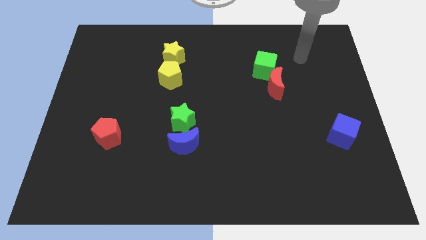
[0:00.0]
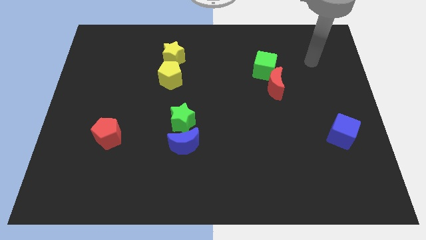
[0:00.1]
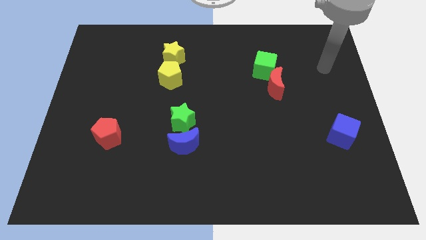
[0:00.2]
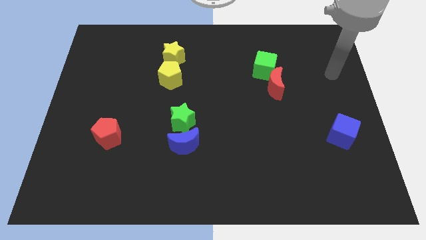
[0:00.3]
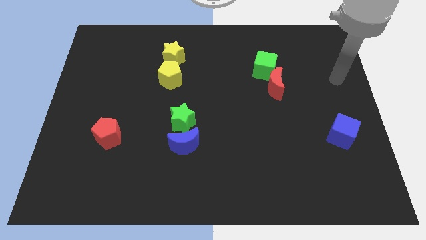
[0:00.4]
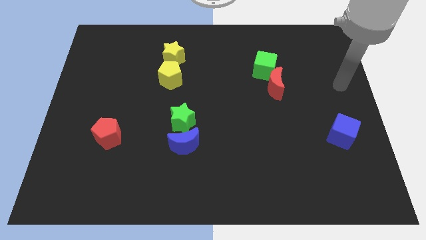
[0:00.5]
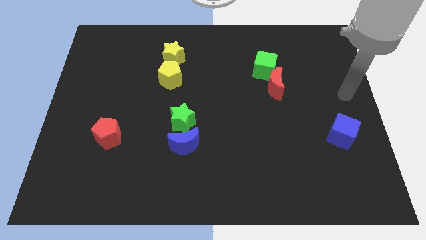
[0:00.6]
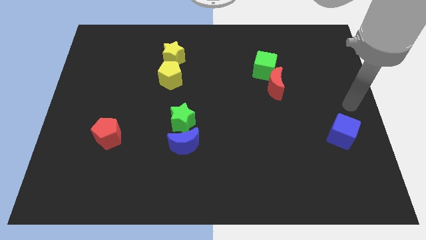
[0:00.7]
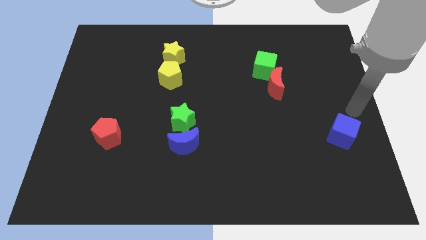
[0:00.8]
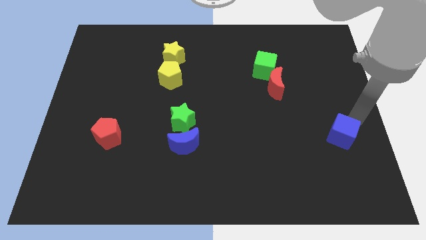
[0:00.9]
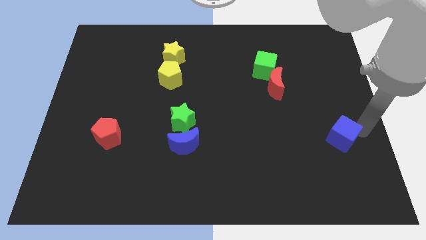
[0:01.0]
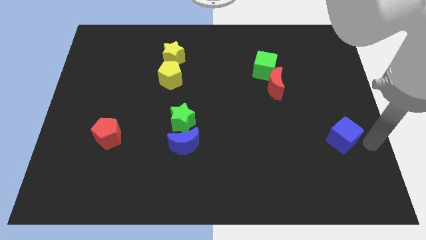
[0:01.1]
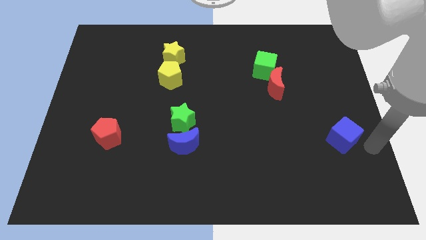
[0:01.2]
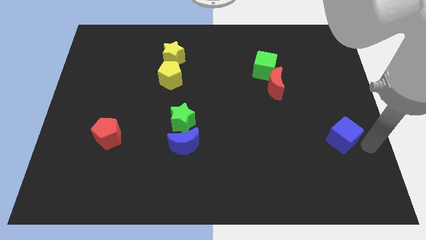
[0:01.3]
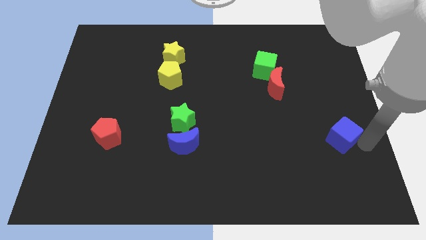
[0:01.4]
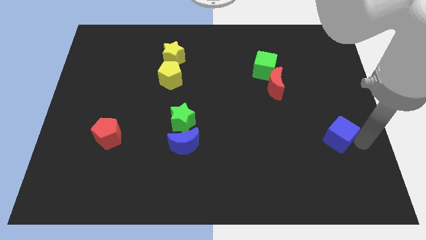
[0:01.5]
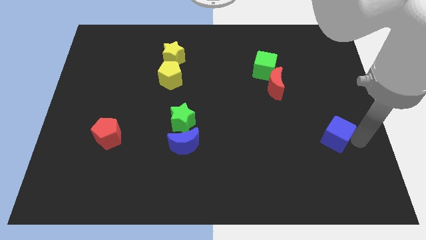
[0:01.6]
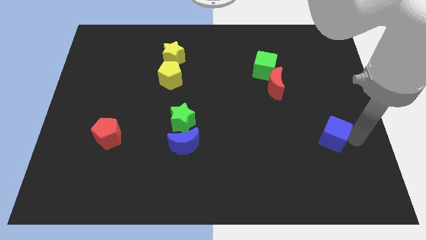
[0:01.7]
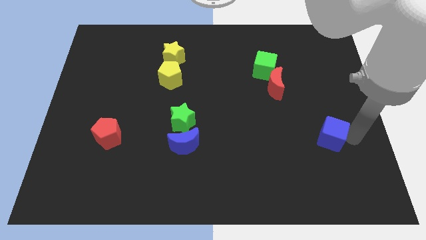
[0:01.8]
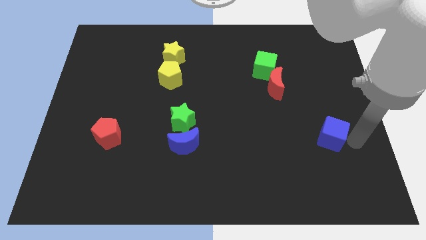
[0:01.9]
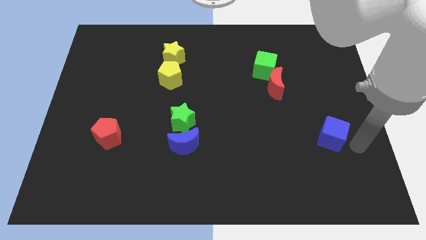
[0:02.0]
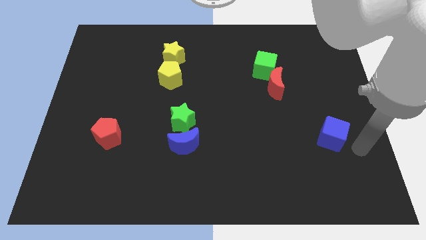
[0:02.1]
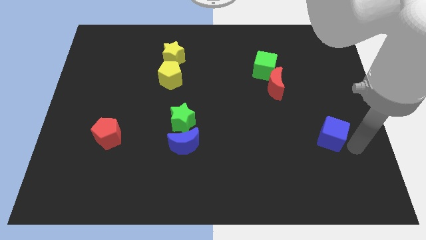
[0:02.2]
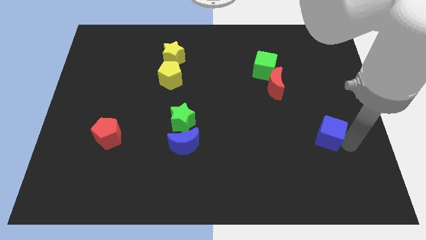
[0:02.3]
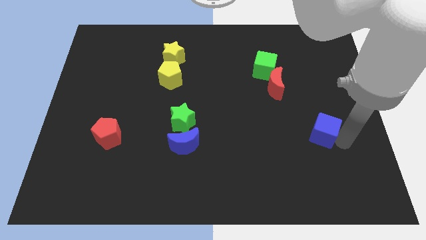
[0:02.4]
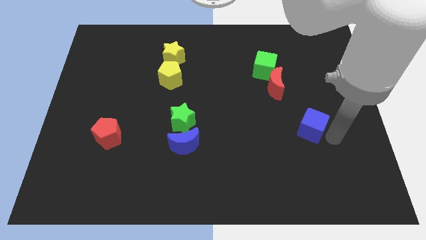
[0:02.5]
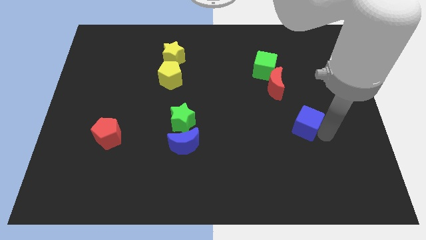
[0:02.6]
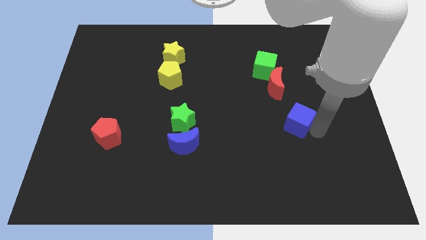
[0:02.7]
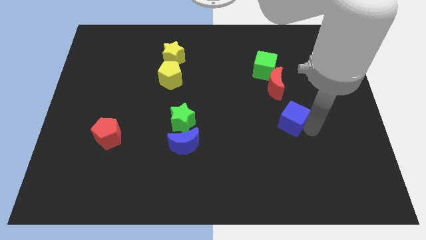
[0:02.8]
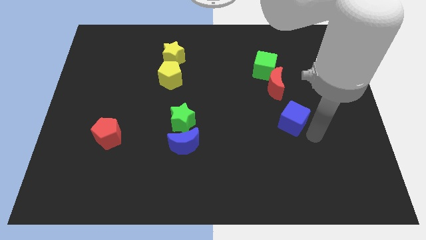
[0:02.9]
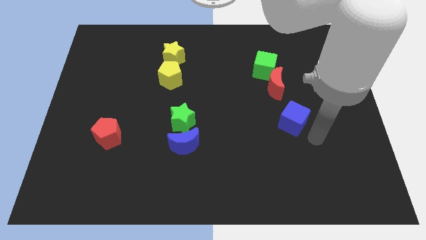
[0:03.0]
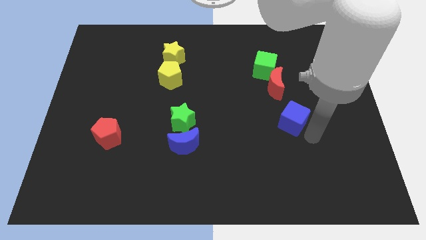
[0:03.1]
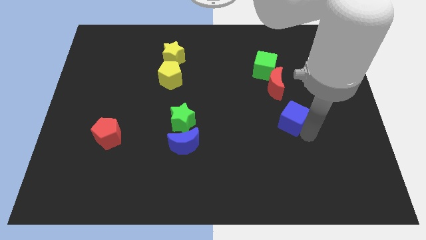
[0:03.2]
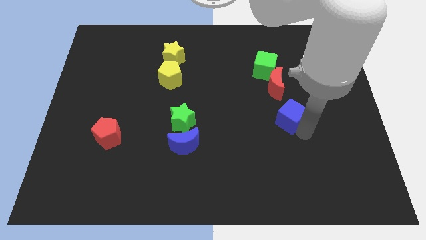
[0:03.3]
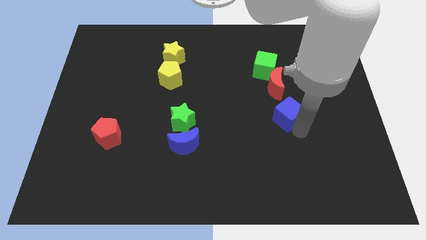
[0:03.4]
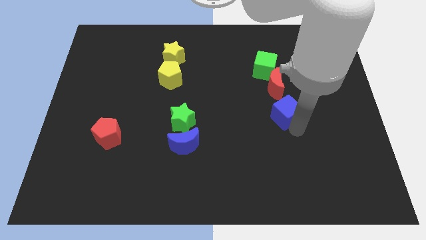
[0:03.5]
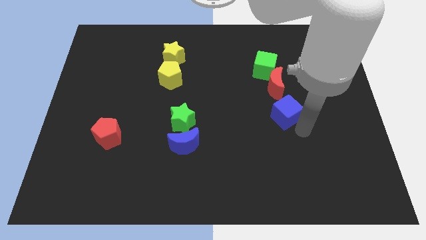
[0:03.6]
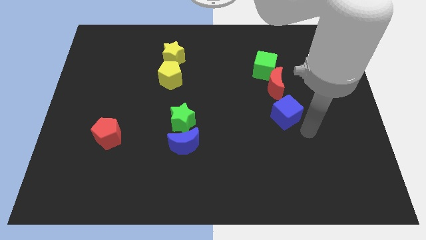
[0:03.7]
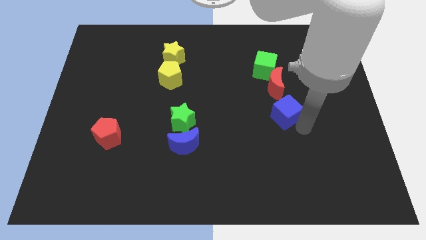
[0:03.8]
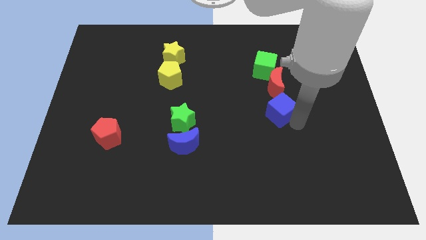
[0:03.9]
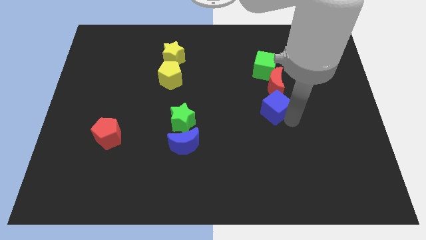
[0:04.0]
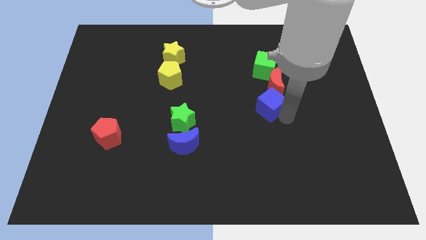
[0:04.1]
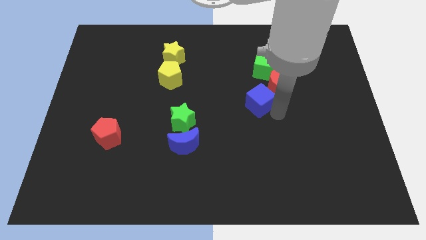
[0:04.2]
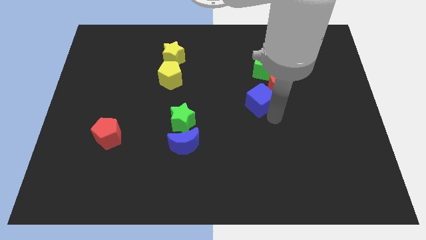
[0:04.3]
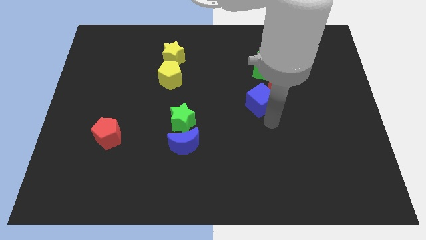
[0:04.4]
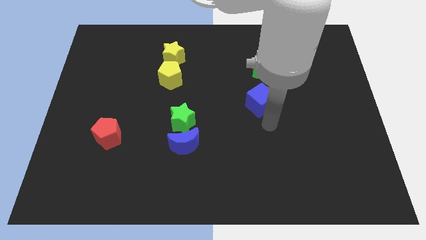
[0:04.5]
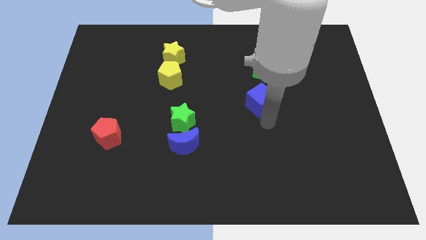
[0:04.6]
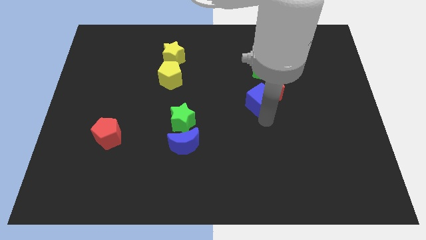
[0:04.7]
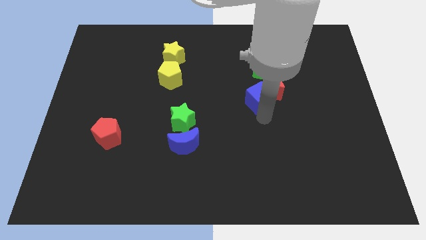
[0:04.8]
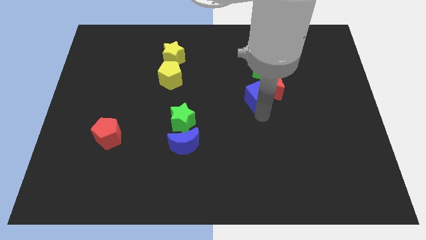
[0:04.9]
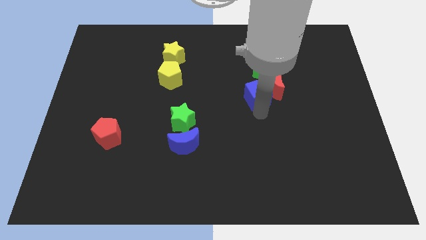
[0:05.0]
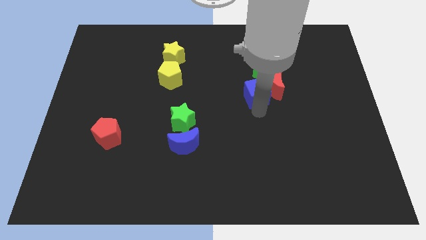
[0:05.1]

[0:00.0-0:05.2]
move the blue cube up and to the left

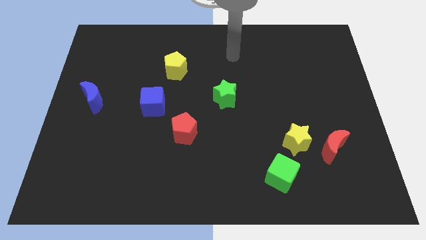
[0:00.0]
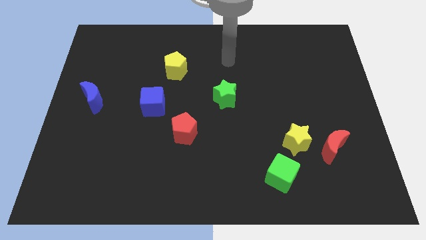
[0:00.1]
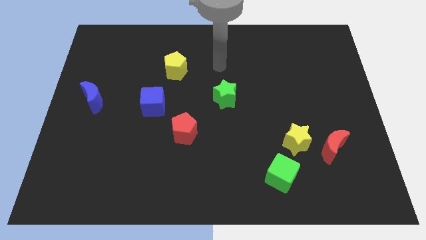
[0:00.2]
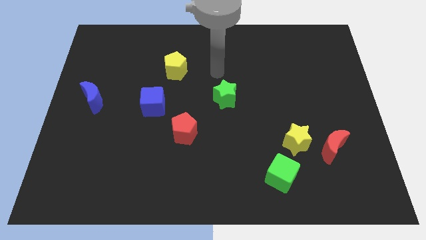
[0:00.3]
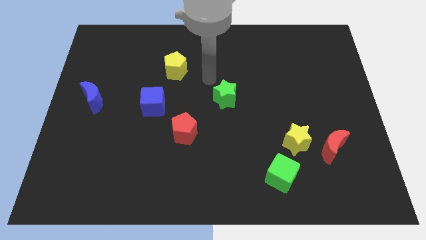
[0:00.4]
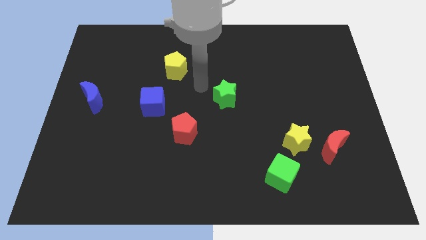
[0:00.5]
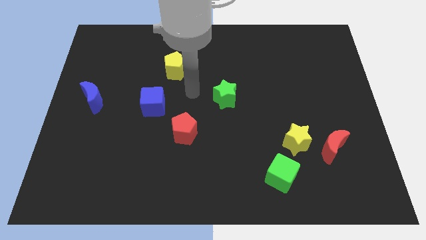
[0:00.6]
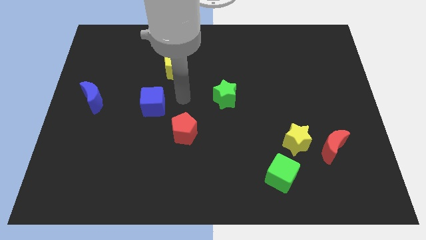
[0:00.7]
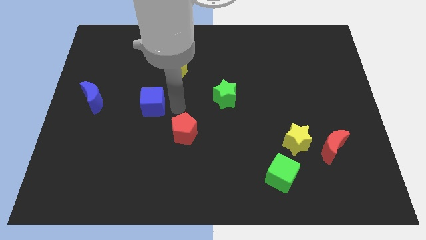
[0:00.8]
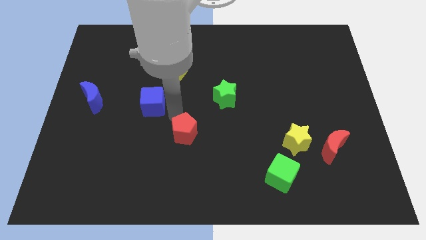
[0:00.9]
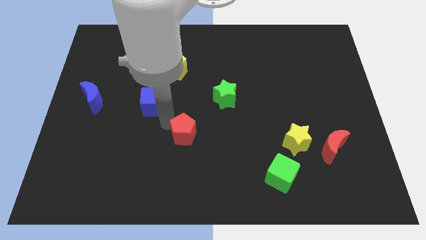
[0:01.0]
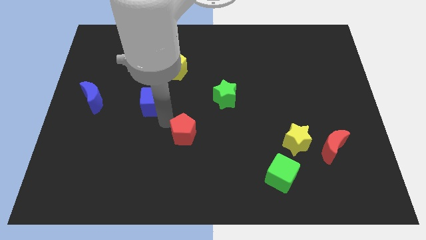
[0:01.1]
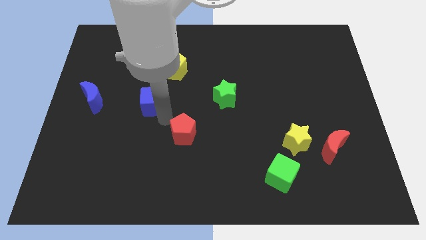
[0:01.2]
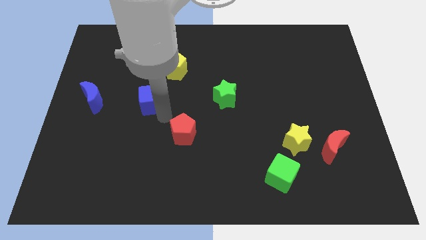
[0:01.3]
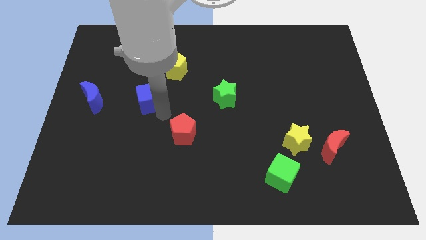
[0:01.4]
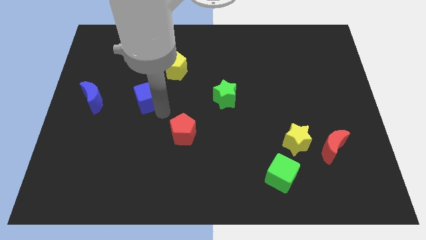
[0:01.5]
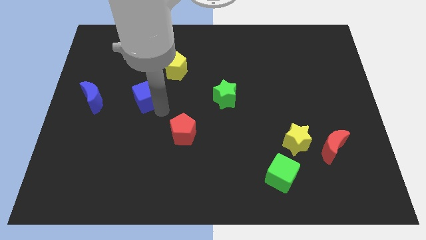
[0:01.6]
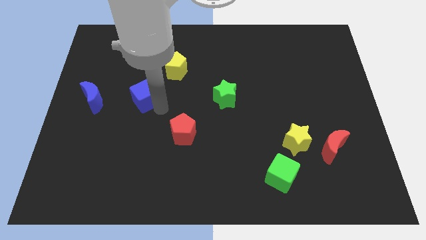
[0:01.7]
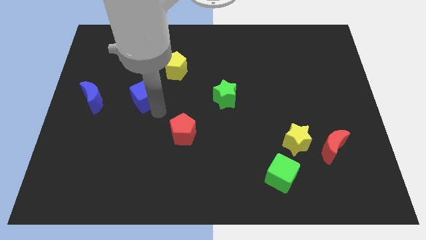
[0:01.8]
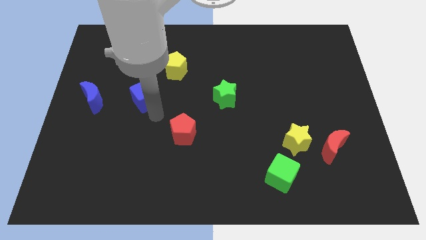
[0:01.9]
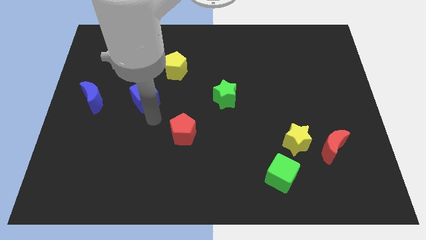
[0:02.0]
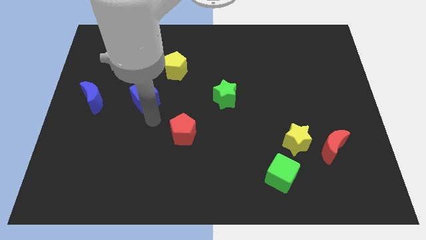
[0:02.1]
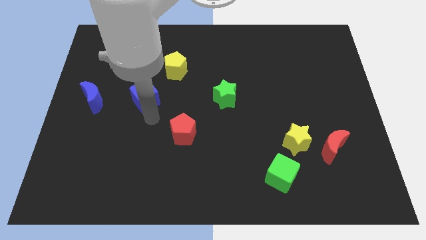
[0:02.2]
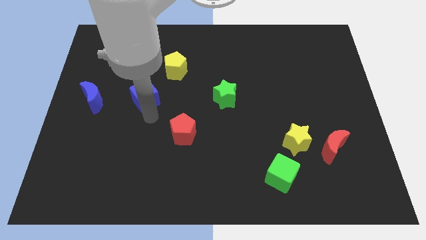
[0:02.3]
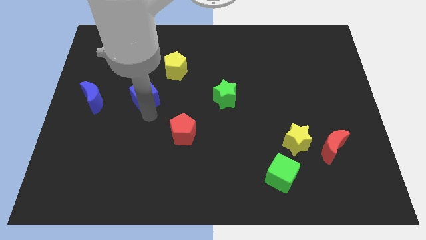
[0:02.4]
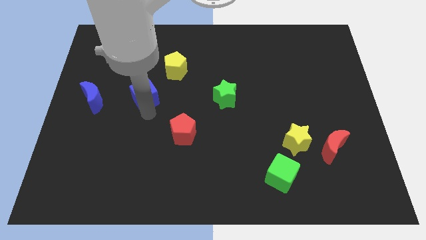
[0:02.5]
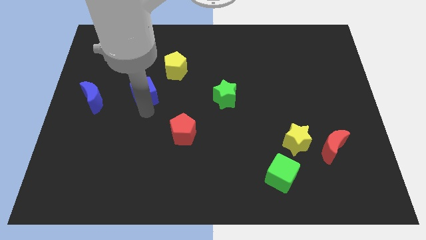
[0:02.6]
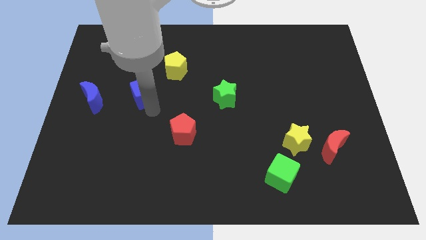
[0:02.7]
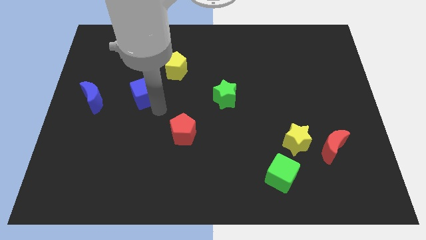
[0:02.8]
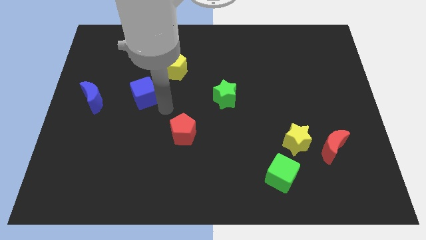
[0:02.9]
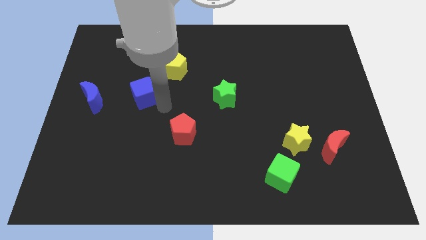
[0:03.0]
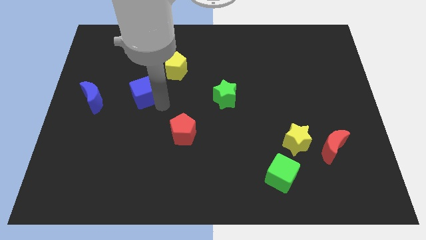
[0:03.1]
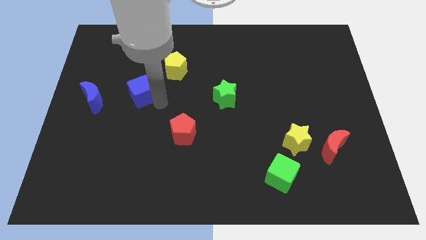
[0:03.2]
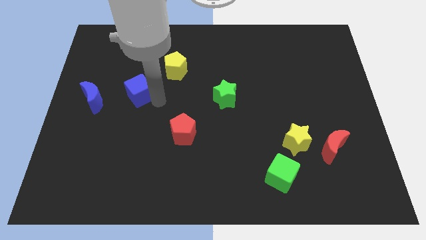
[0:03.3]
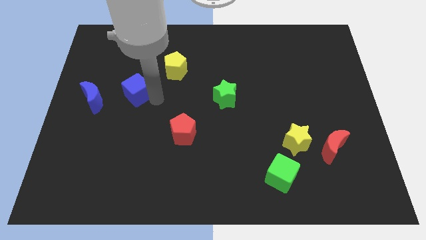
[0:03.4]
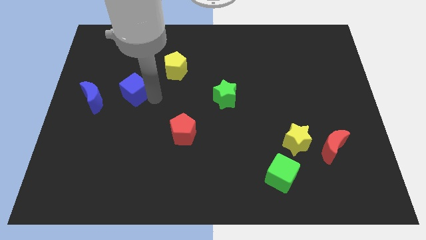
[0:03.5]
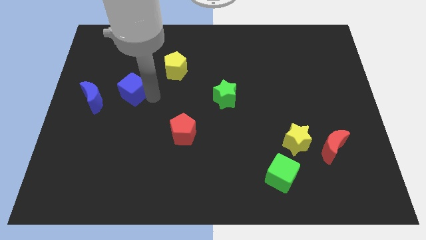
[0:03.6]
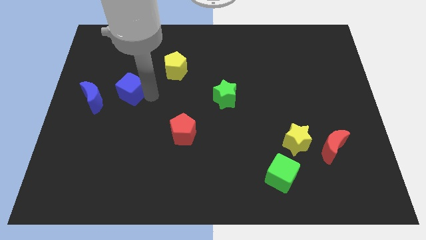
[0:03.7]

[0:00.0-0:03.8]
push the blue cube a little upwards and left
